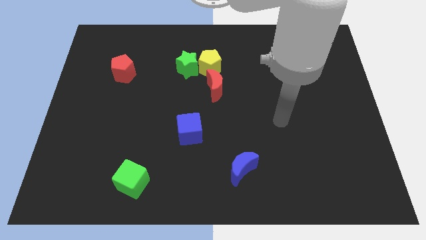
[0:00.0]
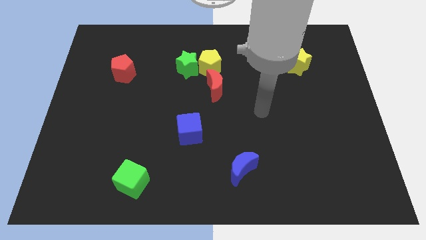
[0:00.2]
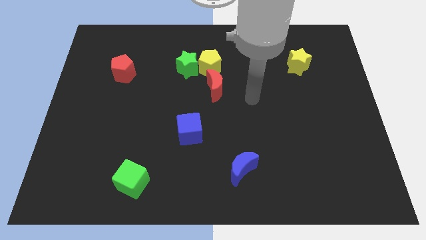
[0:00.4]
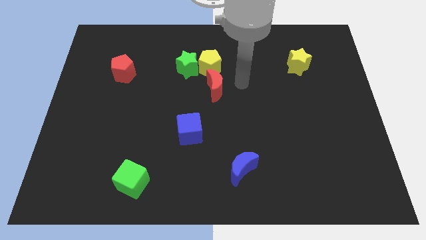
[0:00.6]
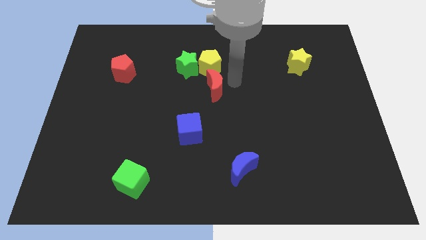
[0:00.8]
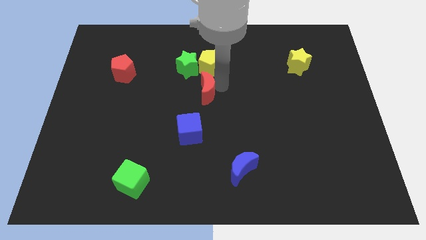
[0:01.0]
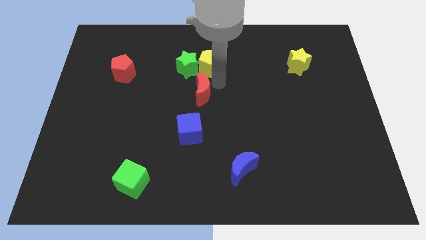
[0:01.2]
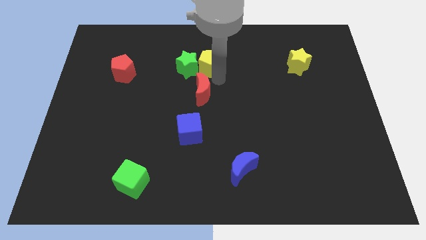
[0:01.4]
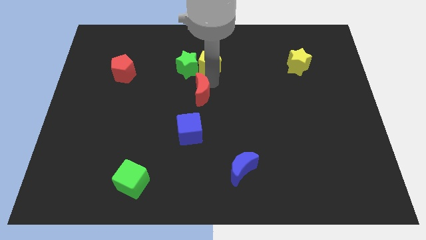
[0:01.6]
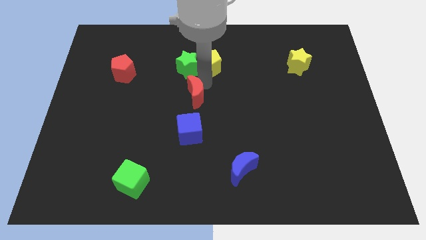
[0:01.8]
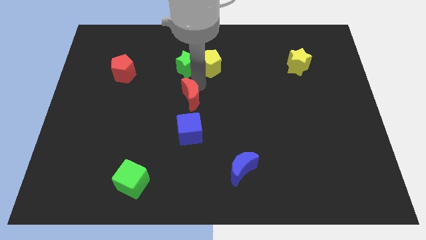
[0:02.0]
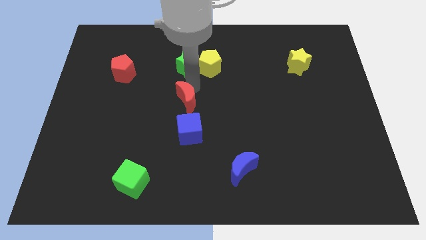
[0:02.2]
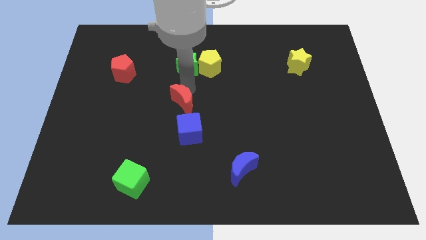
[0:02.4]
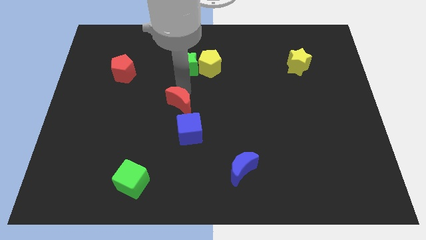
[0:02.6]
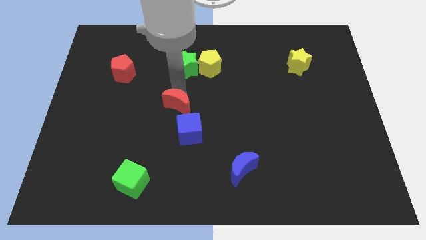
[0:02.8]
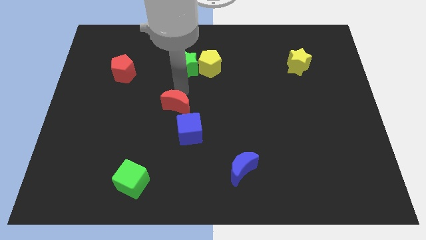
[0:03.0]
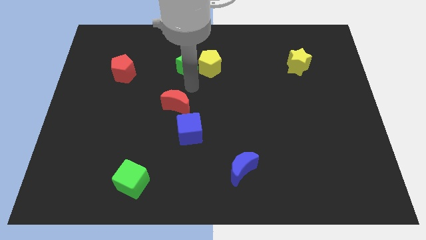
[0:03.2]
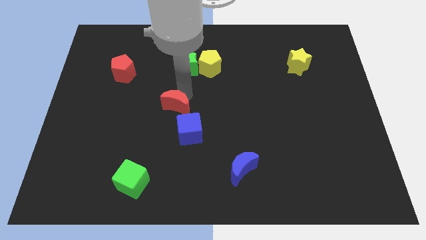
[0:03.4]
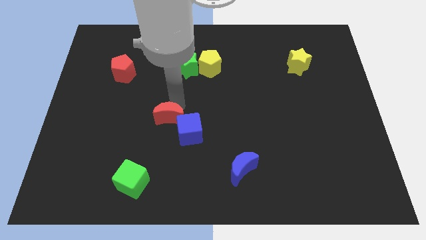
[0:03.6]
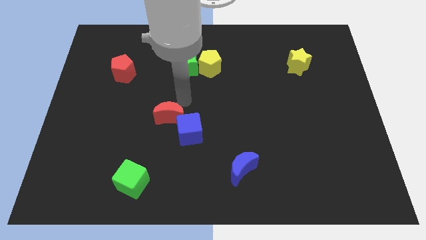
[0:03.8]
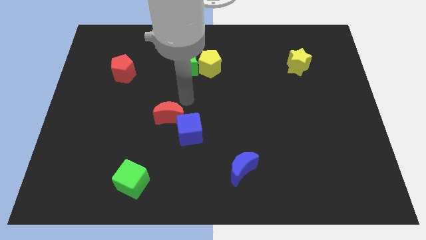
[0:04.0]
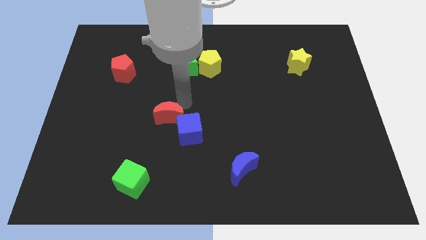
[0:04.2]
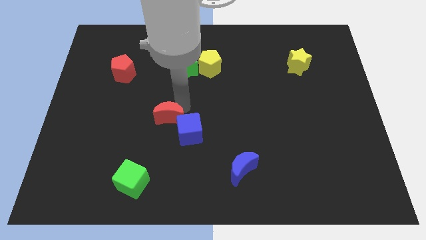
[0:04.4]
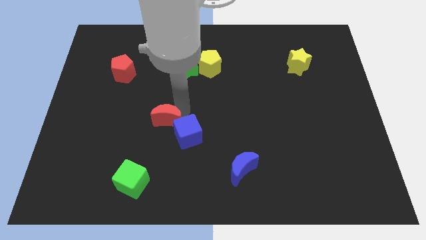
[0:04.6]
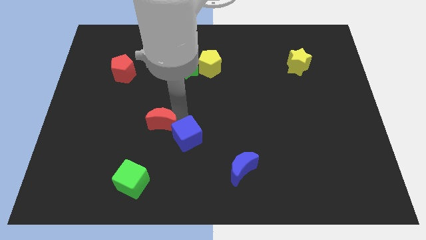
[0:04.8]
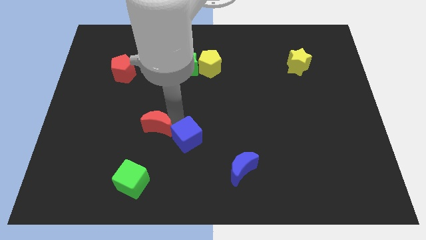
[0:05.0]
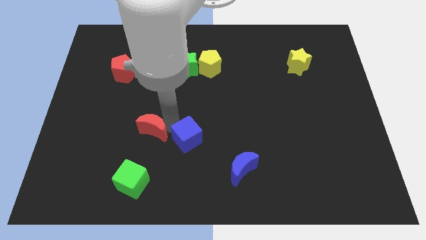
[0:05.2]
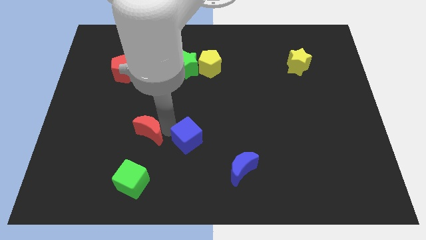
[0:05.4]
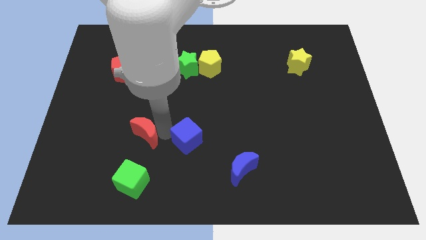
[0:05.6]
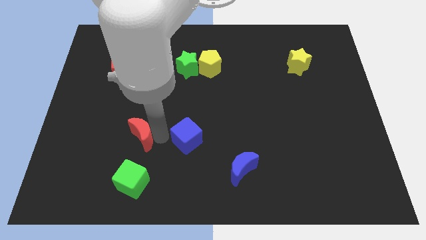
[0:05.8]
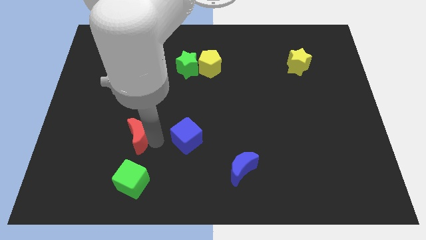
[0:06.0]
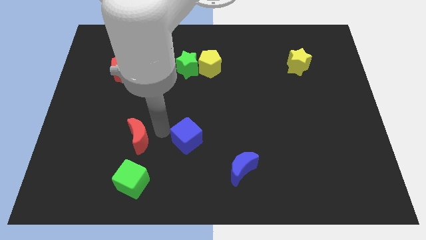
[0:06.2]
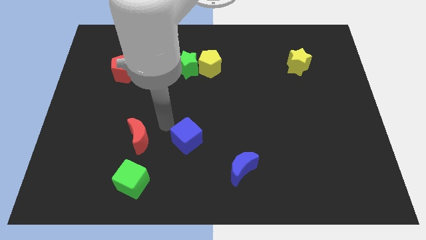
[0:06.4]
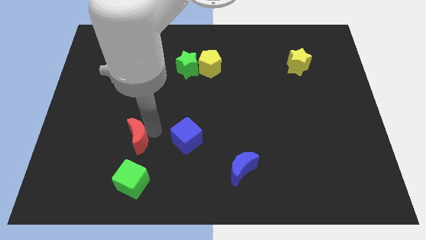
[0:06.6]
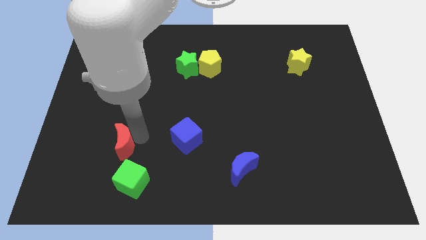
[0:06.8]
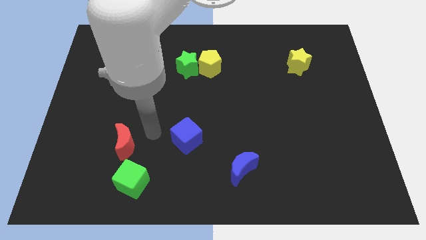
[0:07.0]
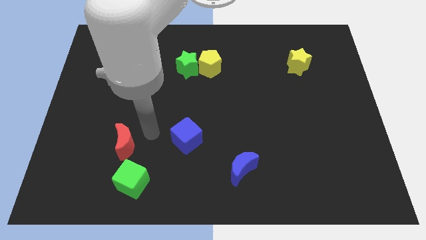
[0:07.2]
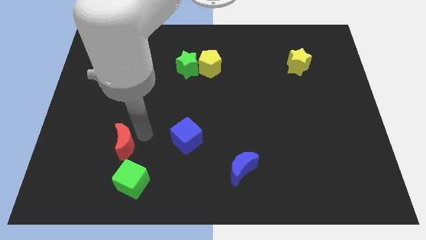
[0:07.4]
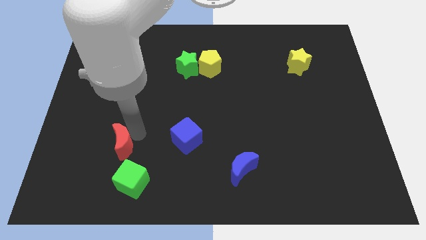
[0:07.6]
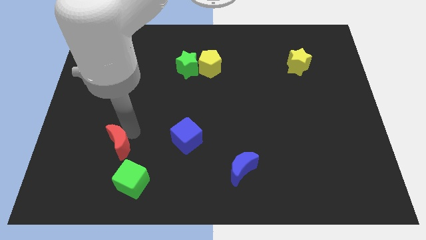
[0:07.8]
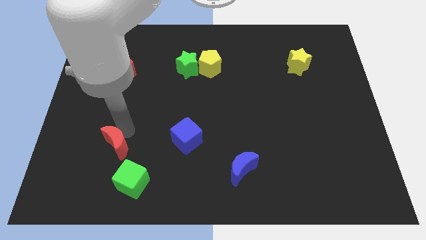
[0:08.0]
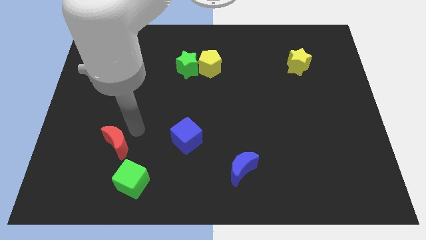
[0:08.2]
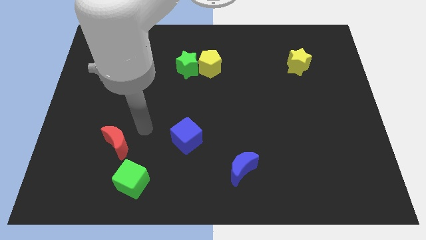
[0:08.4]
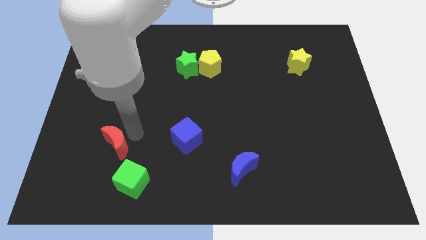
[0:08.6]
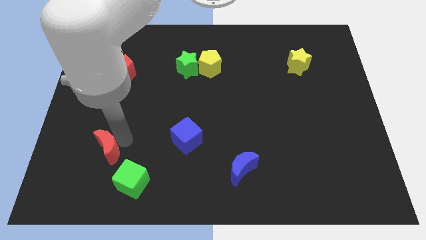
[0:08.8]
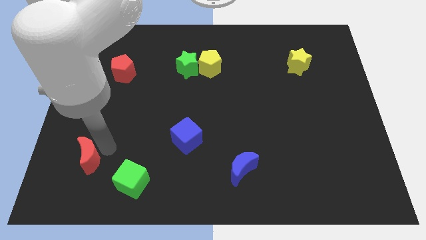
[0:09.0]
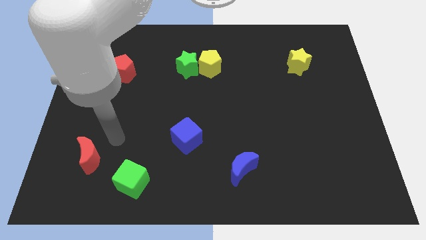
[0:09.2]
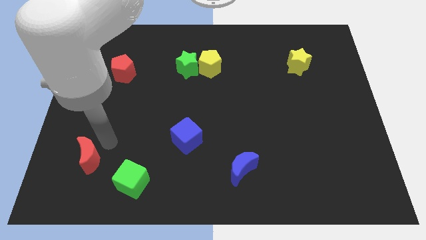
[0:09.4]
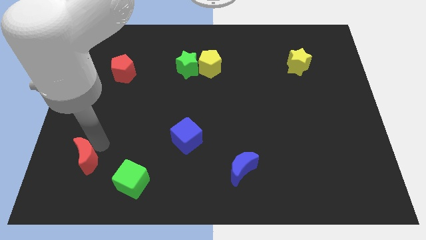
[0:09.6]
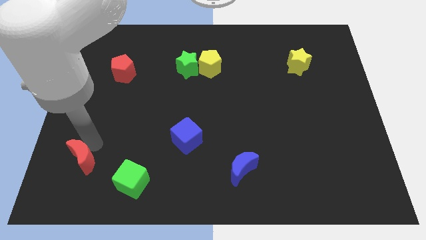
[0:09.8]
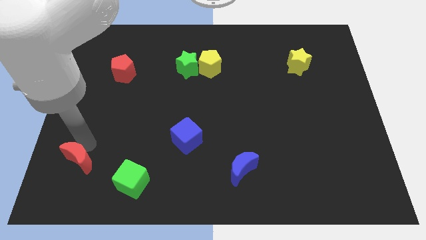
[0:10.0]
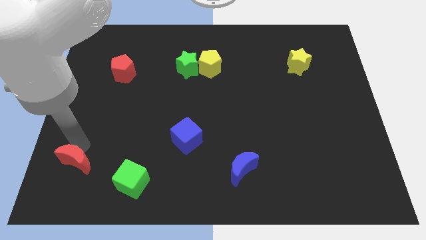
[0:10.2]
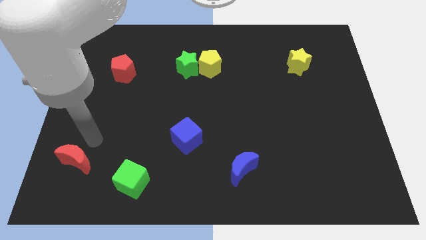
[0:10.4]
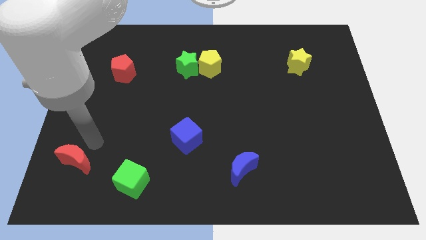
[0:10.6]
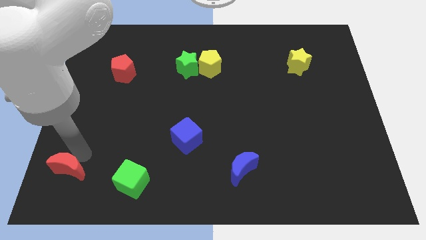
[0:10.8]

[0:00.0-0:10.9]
put the red moon to the lower left corner

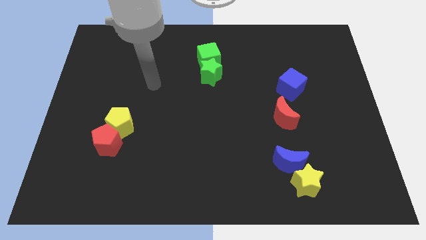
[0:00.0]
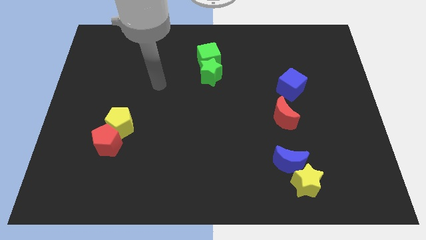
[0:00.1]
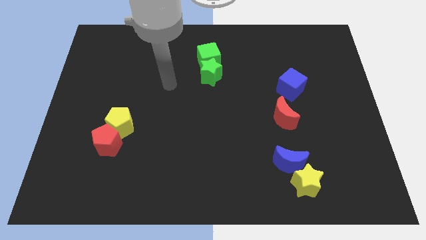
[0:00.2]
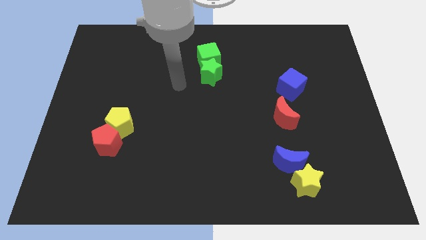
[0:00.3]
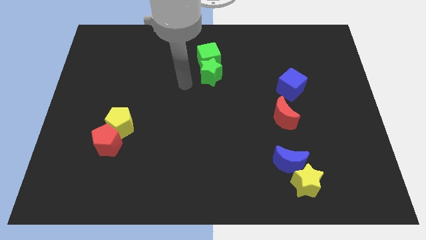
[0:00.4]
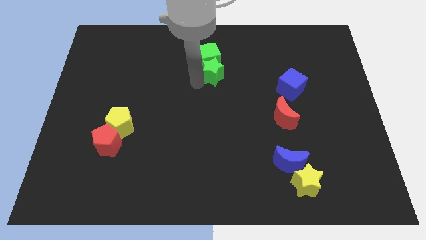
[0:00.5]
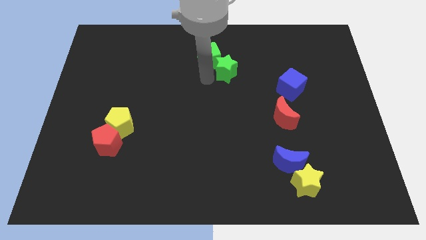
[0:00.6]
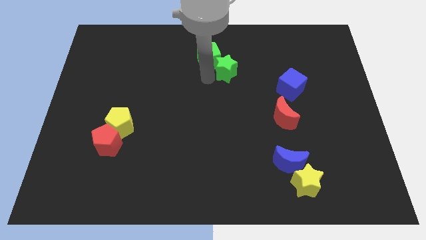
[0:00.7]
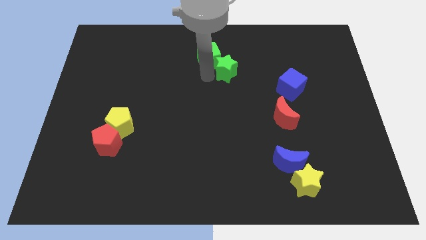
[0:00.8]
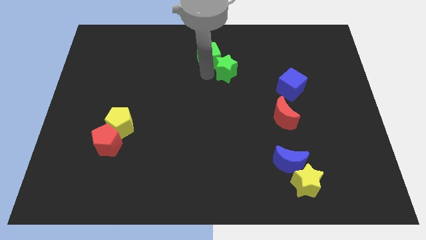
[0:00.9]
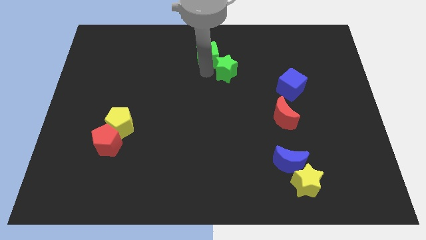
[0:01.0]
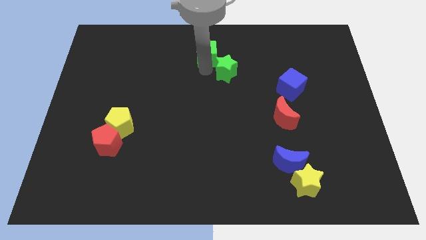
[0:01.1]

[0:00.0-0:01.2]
slide the green cube to the top

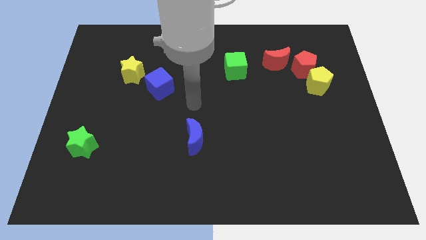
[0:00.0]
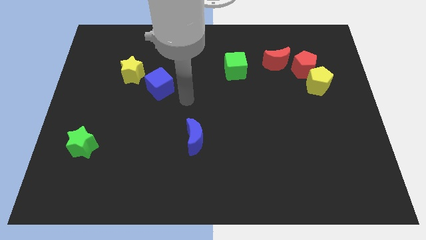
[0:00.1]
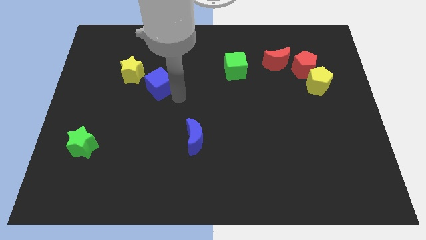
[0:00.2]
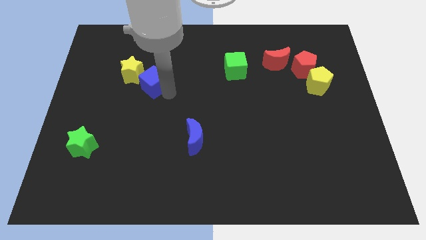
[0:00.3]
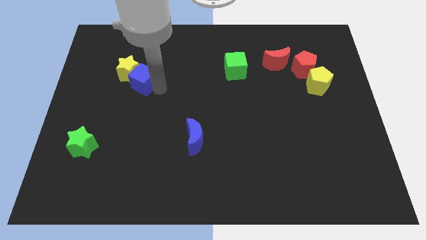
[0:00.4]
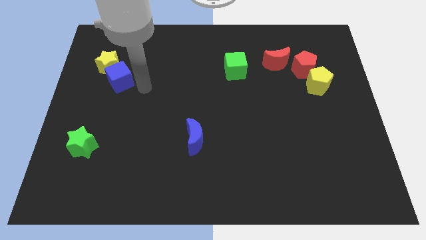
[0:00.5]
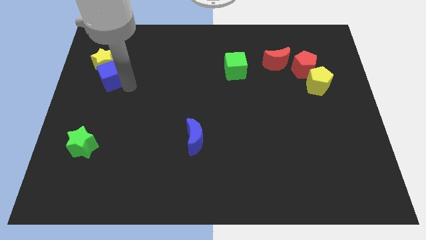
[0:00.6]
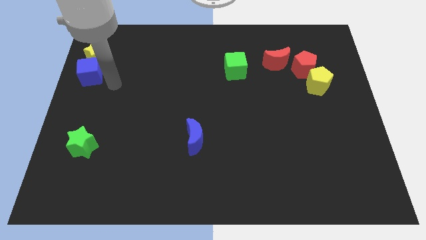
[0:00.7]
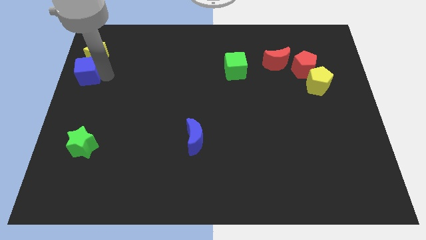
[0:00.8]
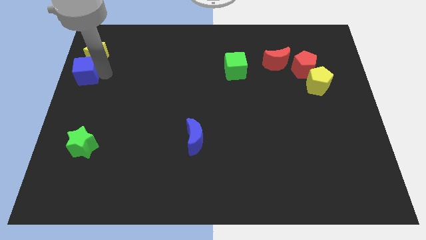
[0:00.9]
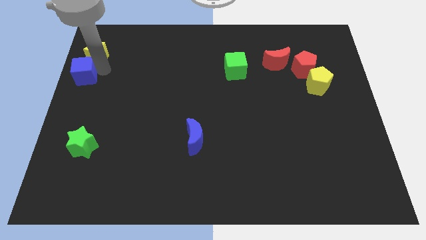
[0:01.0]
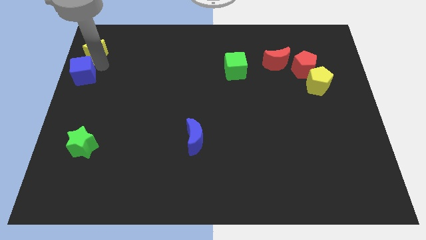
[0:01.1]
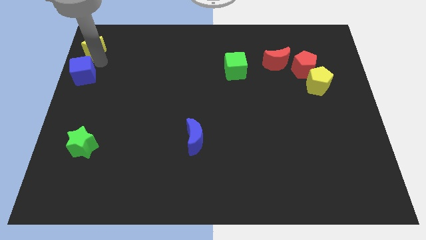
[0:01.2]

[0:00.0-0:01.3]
put the yellow star to the top left corner
